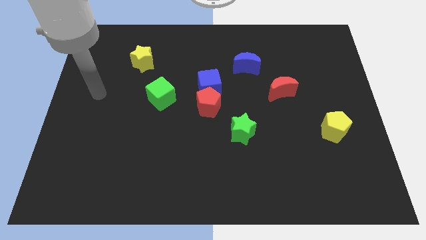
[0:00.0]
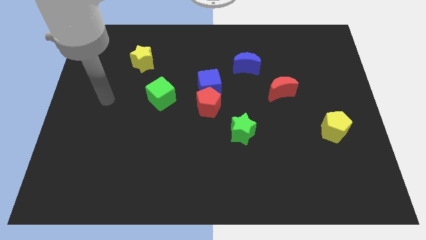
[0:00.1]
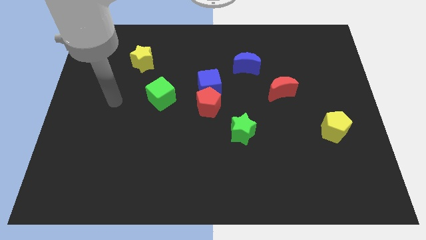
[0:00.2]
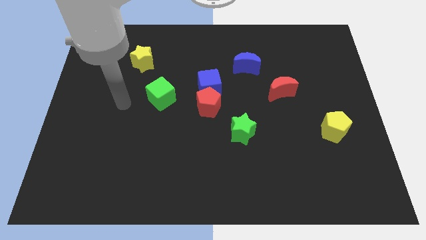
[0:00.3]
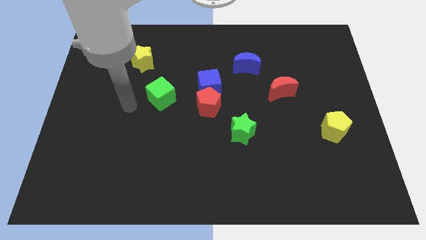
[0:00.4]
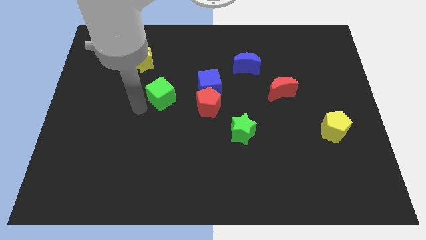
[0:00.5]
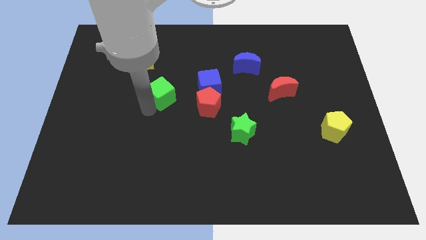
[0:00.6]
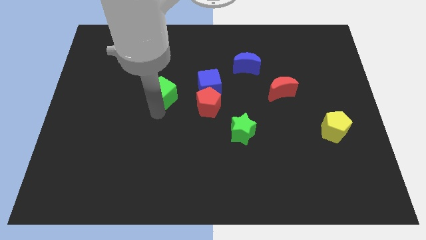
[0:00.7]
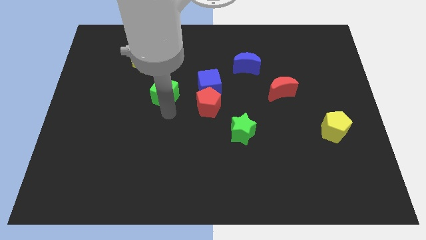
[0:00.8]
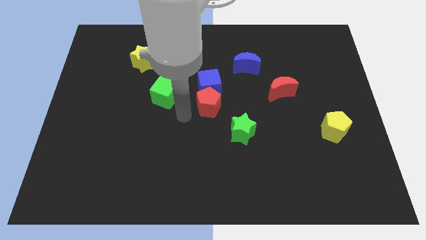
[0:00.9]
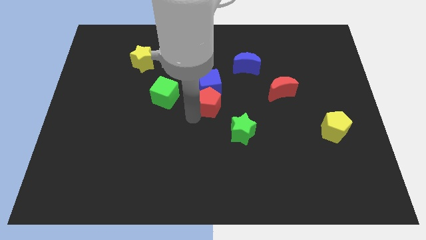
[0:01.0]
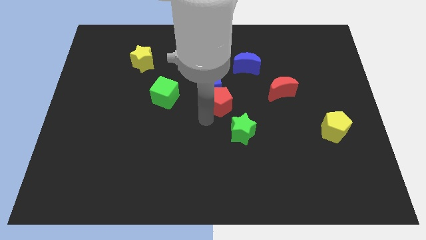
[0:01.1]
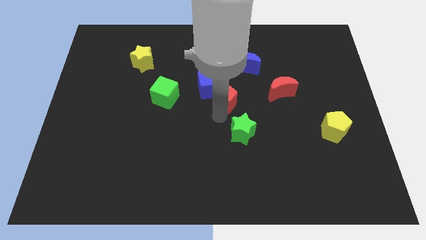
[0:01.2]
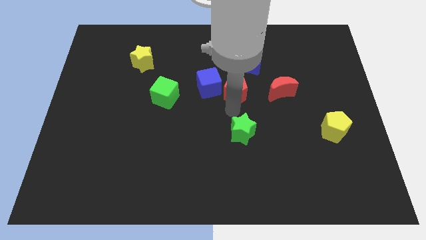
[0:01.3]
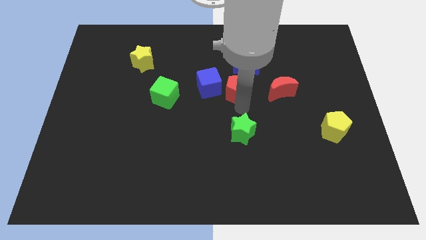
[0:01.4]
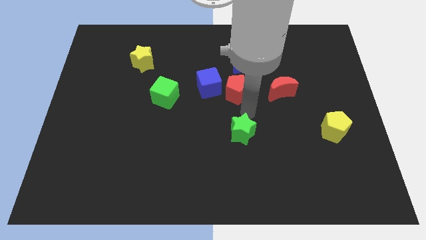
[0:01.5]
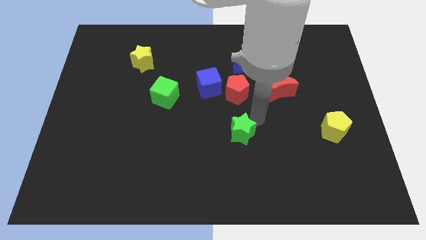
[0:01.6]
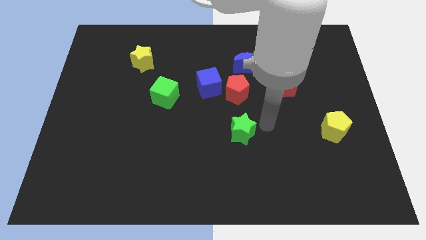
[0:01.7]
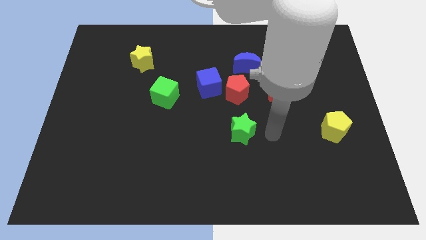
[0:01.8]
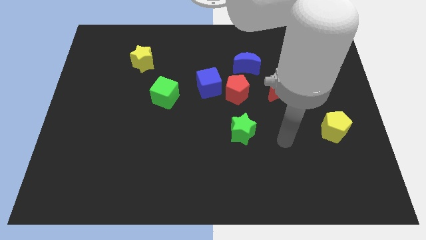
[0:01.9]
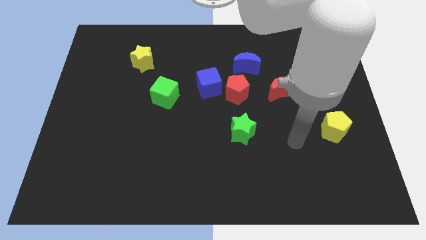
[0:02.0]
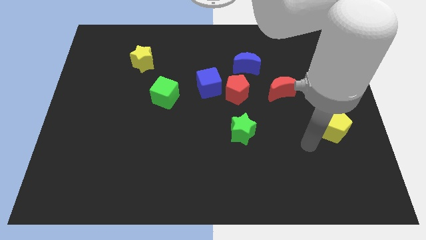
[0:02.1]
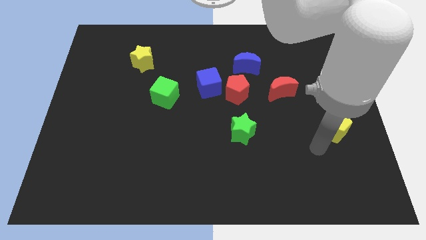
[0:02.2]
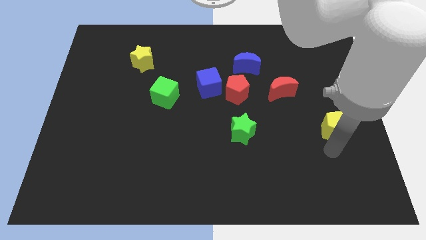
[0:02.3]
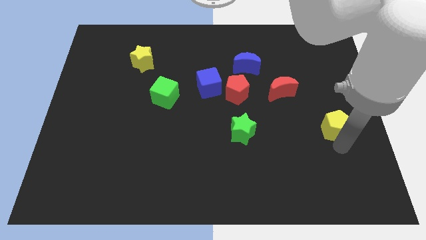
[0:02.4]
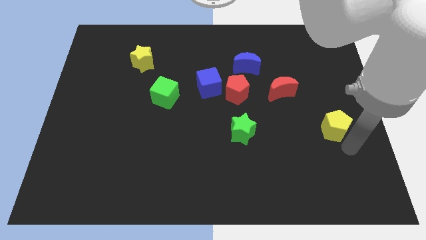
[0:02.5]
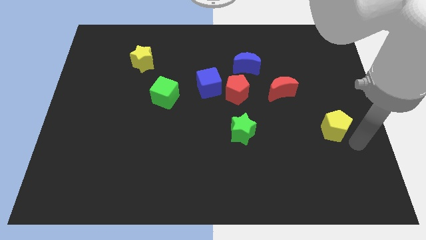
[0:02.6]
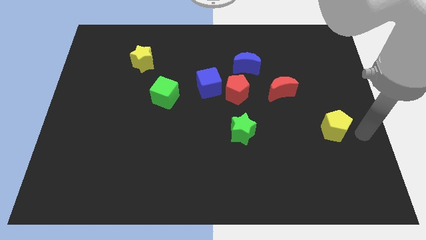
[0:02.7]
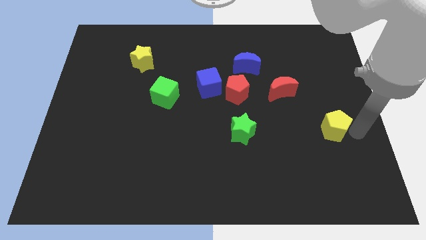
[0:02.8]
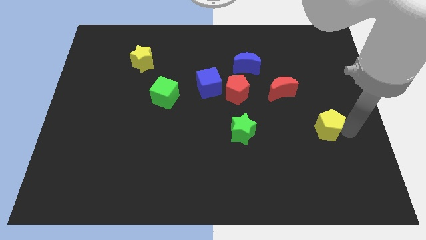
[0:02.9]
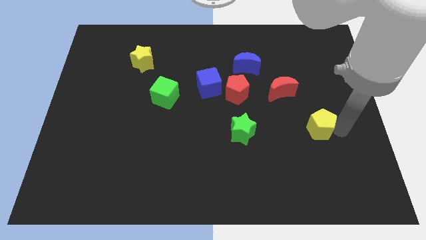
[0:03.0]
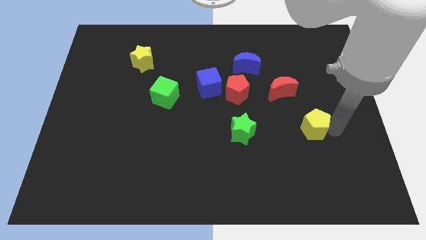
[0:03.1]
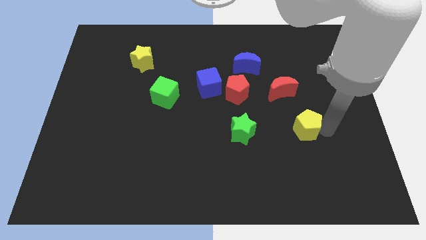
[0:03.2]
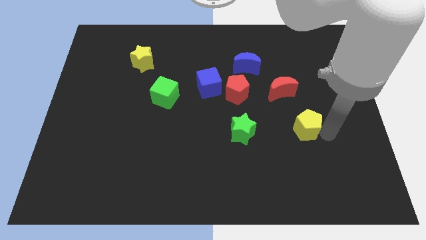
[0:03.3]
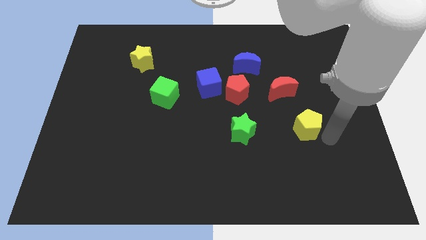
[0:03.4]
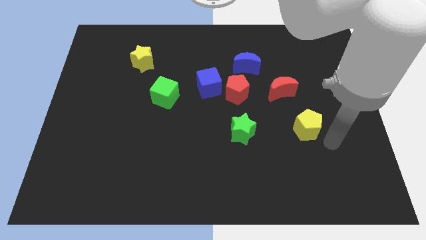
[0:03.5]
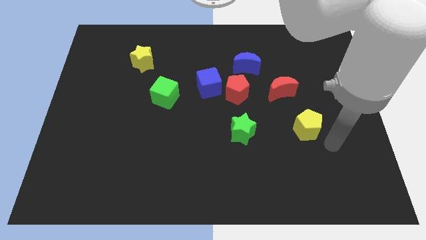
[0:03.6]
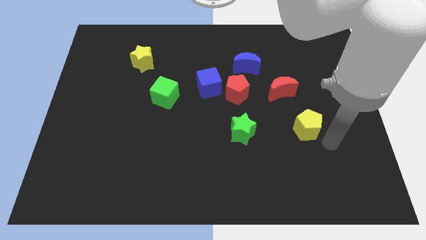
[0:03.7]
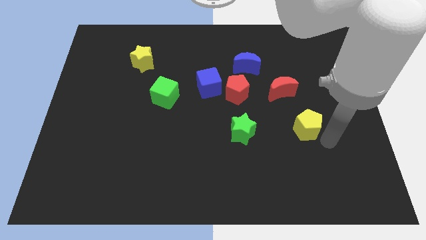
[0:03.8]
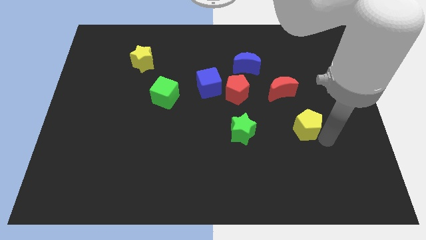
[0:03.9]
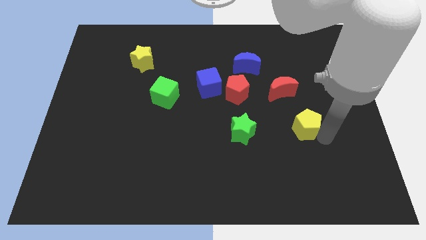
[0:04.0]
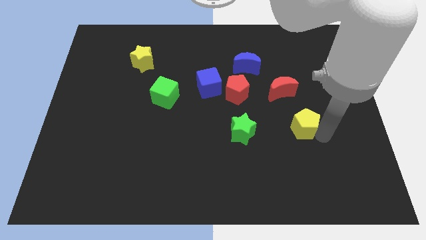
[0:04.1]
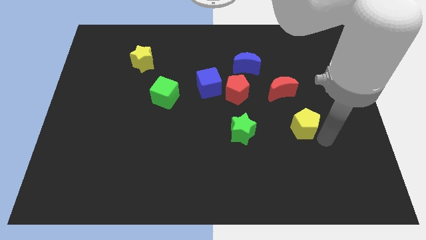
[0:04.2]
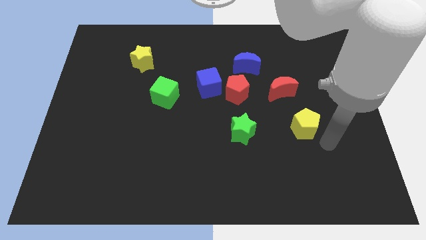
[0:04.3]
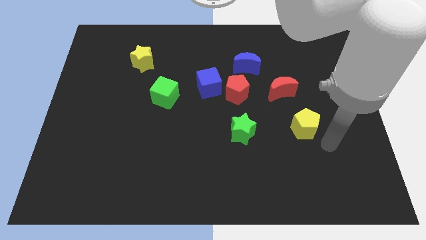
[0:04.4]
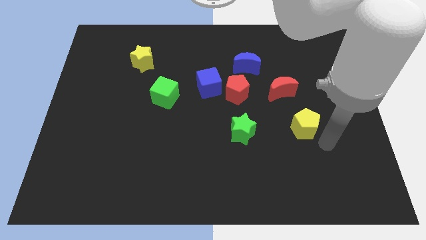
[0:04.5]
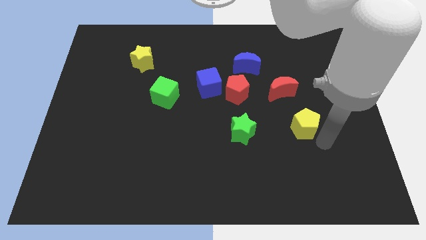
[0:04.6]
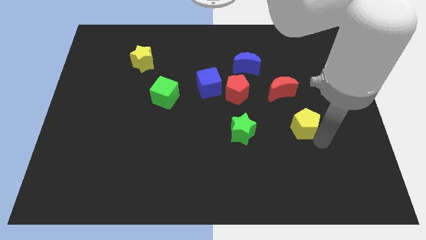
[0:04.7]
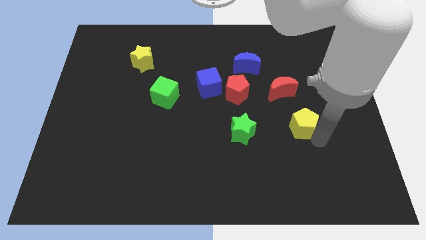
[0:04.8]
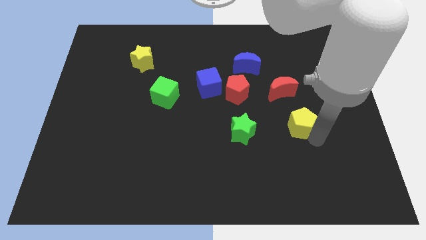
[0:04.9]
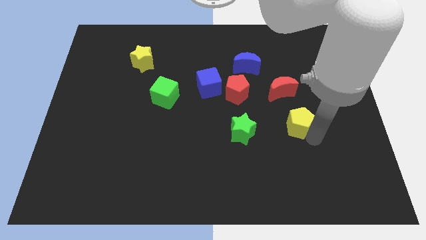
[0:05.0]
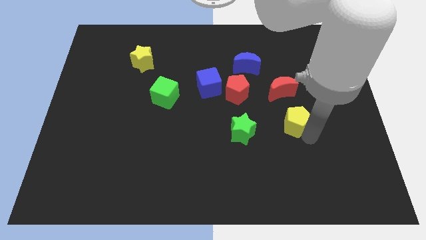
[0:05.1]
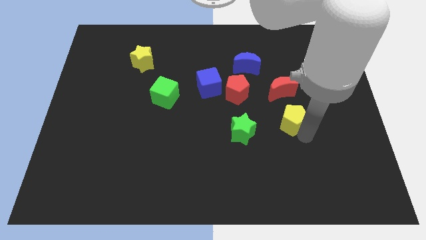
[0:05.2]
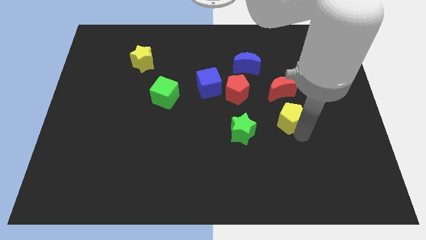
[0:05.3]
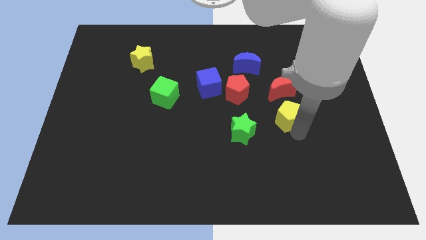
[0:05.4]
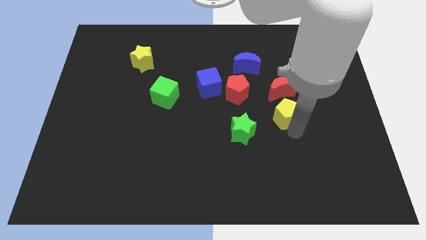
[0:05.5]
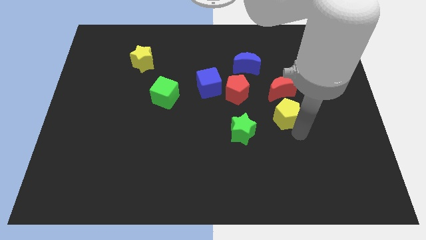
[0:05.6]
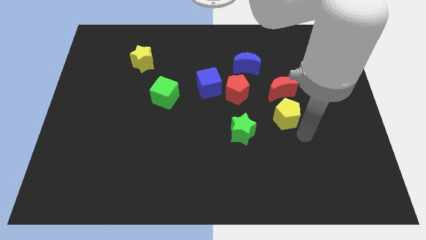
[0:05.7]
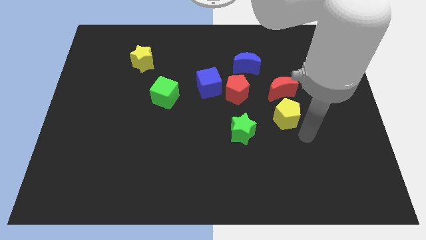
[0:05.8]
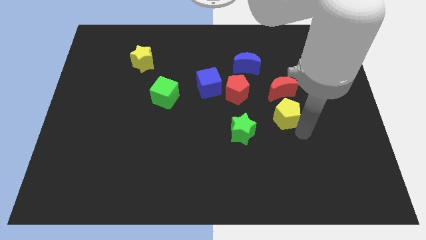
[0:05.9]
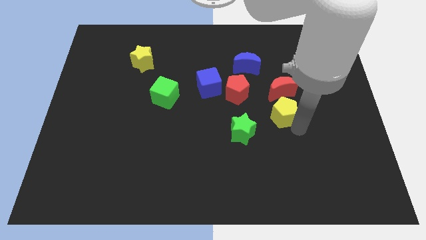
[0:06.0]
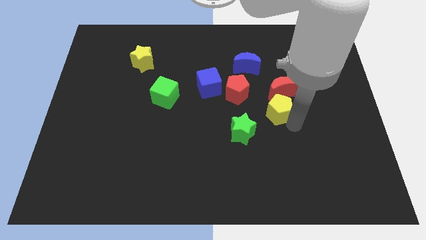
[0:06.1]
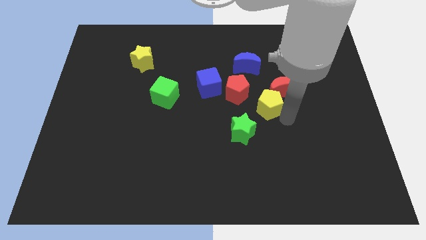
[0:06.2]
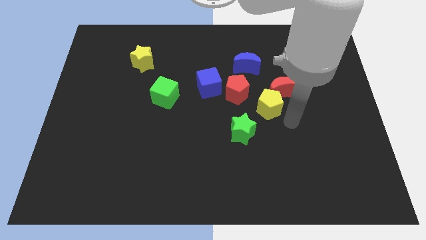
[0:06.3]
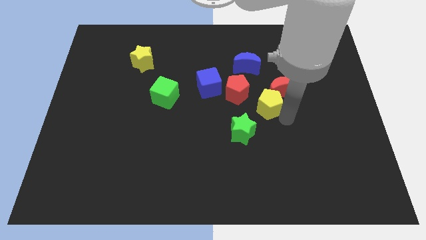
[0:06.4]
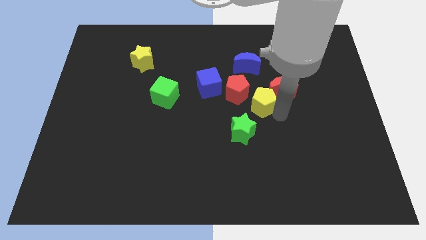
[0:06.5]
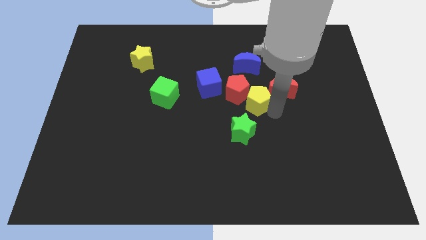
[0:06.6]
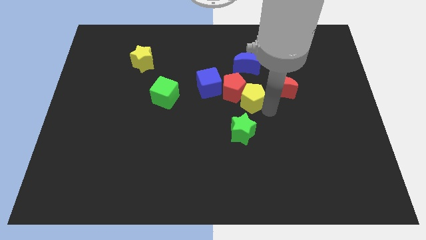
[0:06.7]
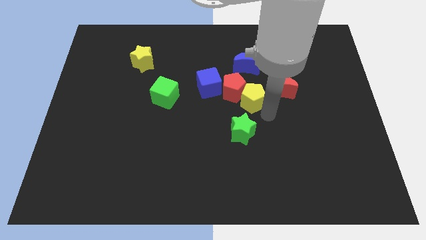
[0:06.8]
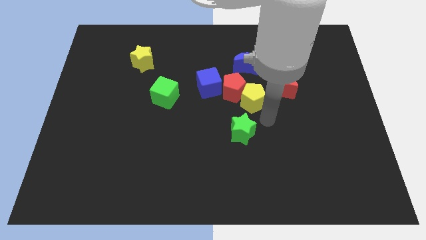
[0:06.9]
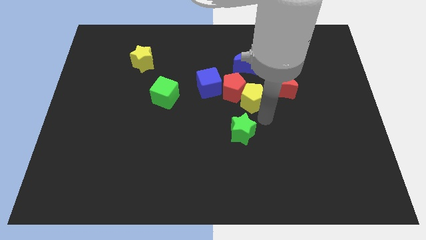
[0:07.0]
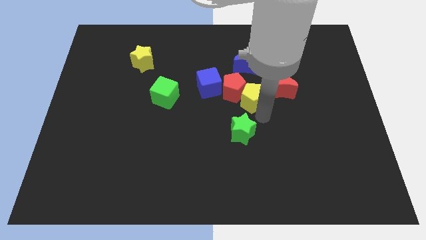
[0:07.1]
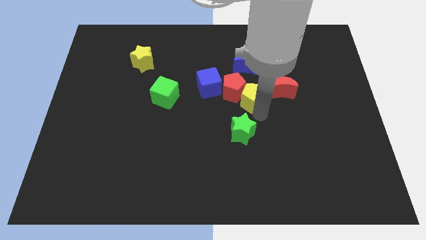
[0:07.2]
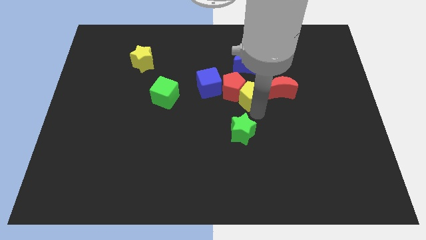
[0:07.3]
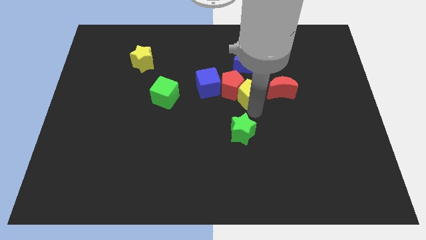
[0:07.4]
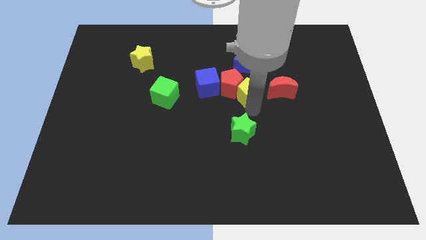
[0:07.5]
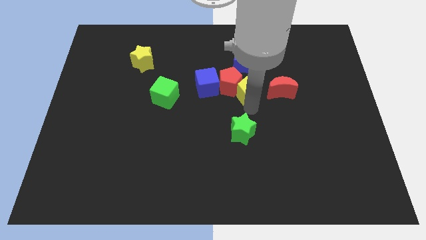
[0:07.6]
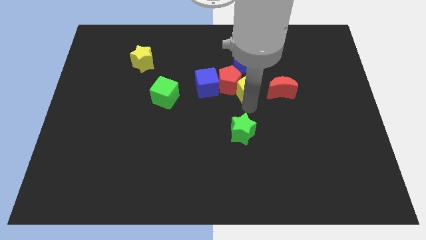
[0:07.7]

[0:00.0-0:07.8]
push the yellow pentagon up and to the left
